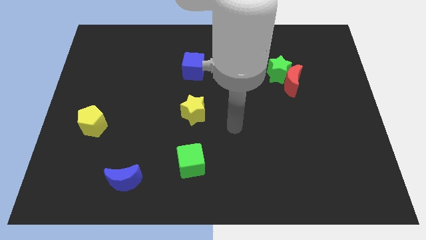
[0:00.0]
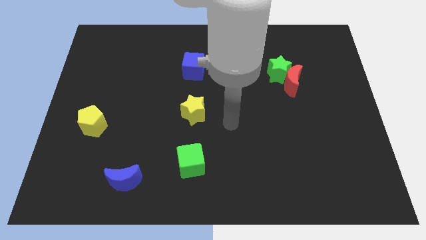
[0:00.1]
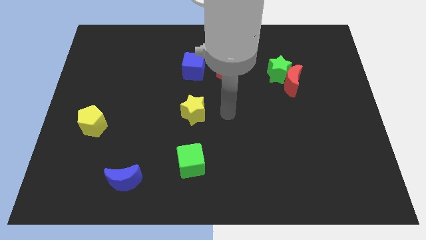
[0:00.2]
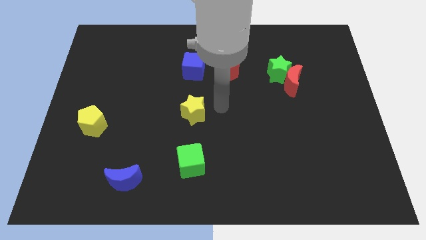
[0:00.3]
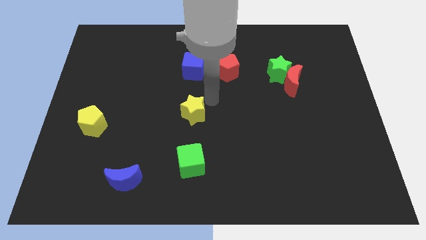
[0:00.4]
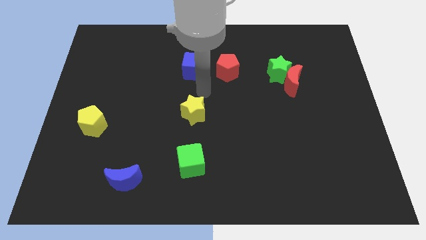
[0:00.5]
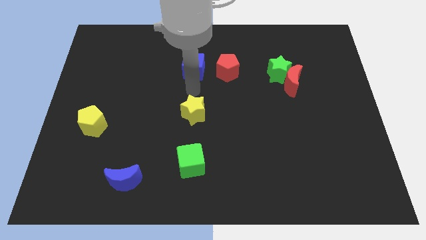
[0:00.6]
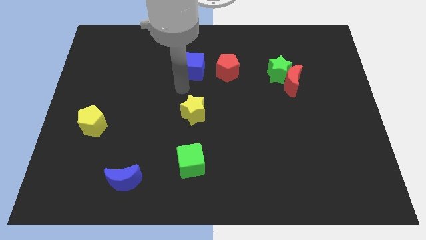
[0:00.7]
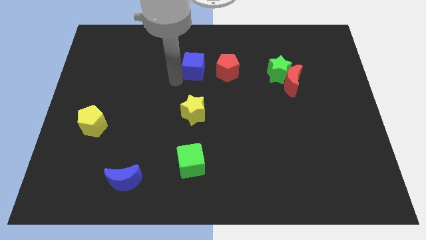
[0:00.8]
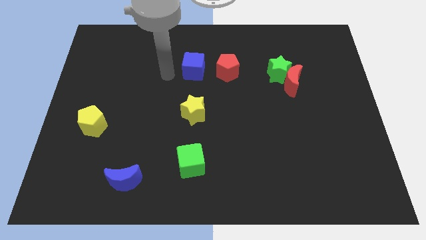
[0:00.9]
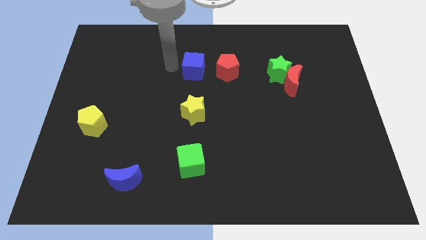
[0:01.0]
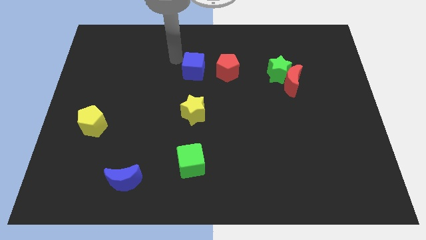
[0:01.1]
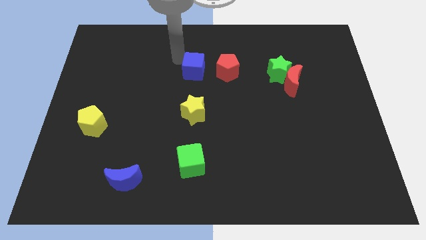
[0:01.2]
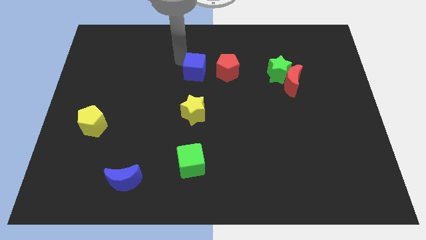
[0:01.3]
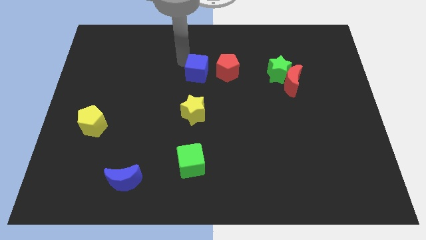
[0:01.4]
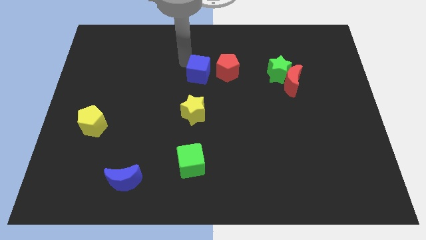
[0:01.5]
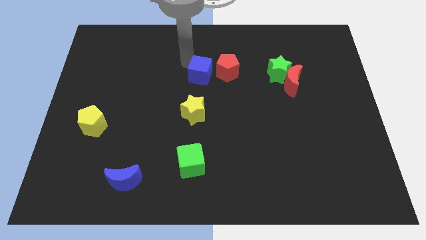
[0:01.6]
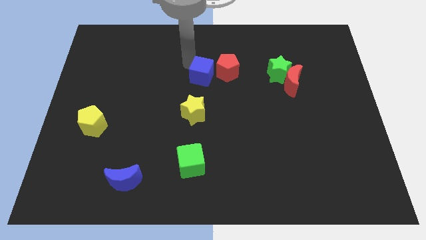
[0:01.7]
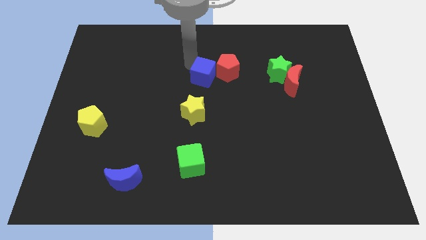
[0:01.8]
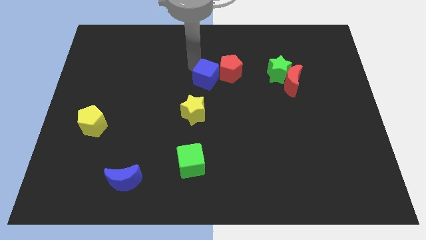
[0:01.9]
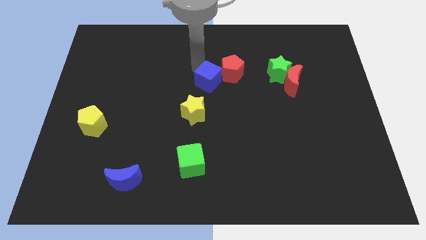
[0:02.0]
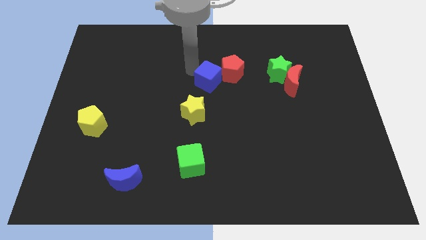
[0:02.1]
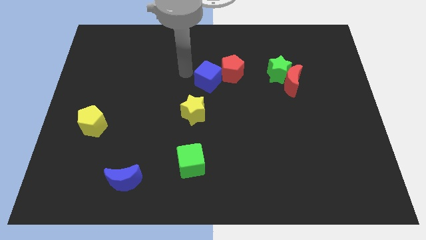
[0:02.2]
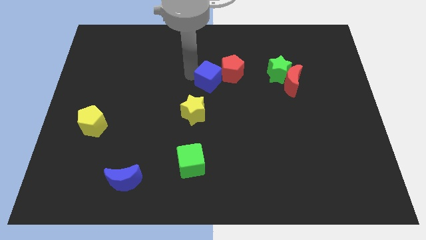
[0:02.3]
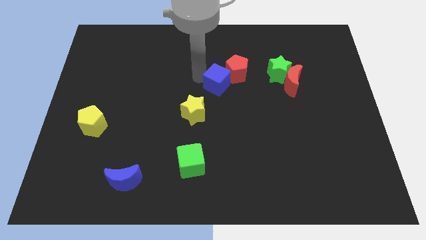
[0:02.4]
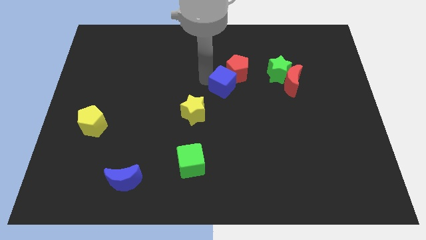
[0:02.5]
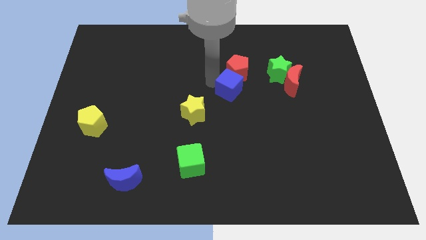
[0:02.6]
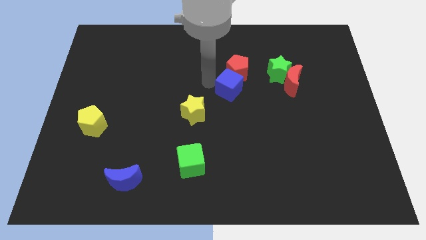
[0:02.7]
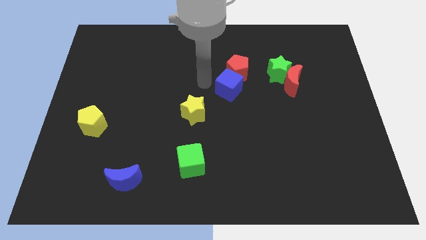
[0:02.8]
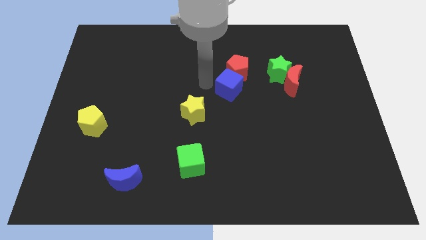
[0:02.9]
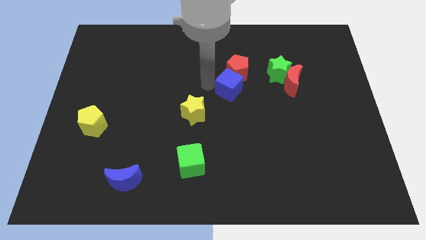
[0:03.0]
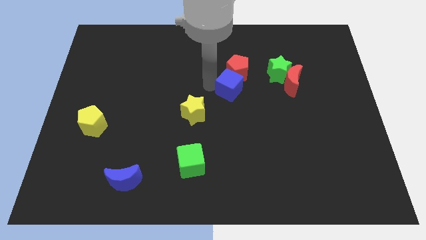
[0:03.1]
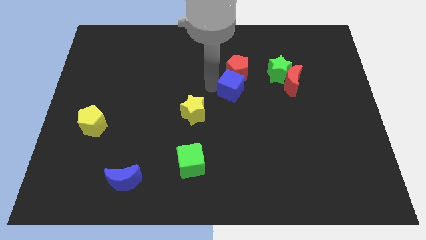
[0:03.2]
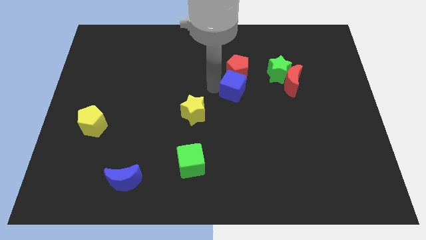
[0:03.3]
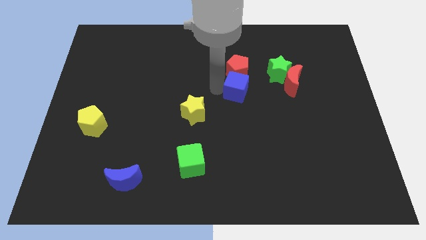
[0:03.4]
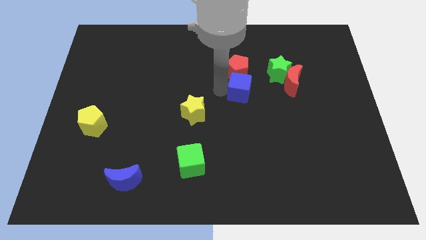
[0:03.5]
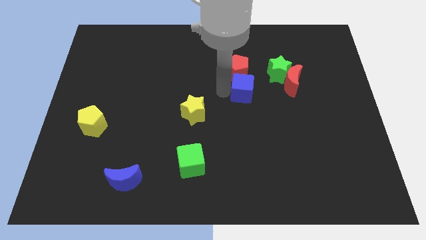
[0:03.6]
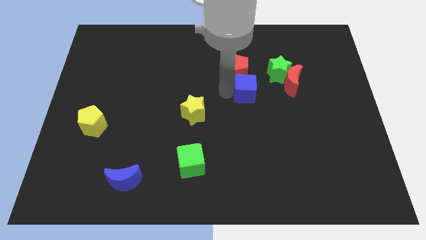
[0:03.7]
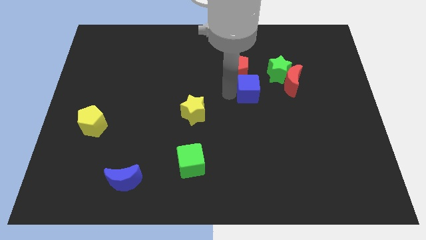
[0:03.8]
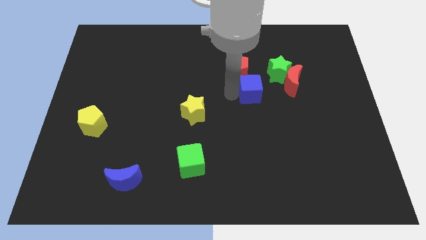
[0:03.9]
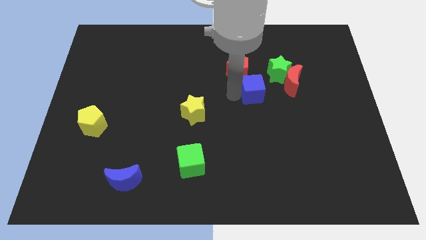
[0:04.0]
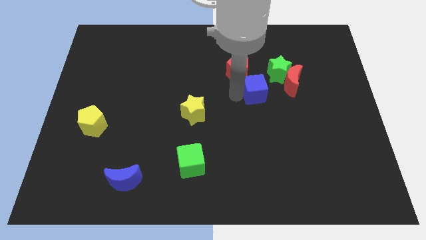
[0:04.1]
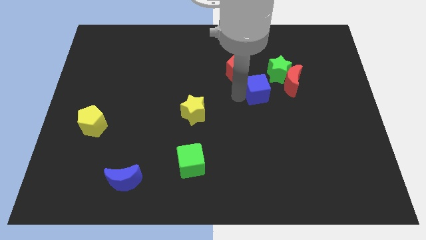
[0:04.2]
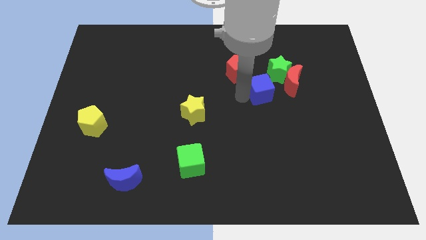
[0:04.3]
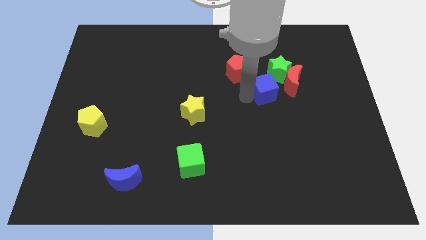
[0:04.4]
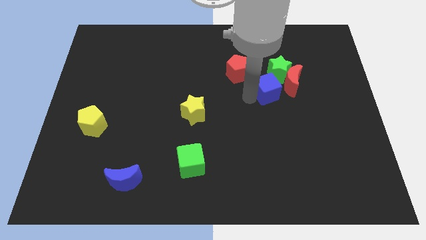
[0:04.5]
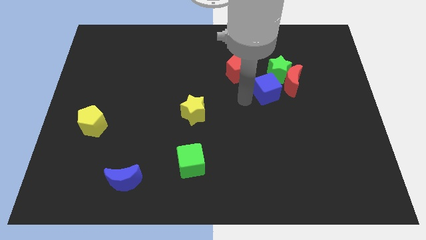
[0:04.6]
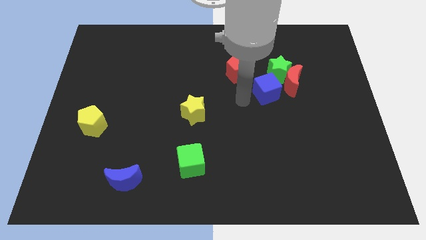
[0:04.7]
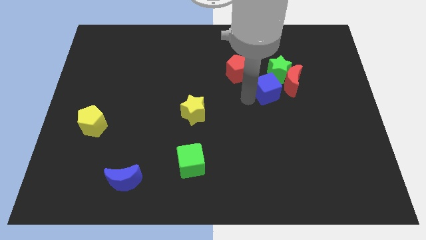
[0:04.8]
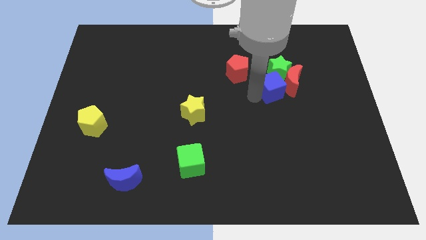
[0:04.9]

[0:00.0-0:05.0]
slide the blue cube to the red moon

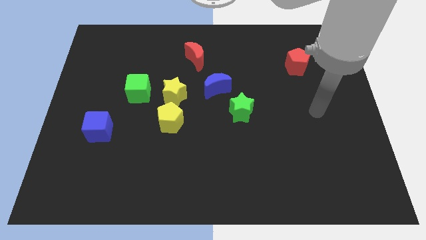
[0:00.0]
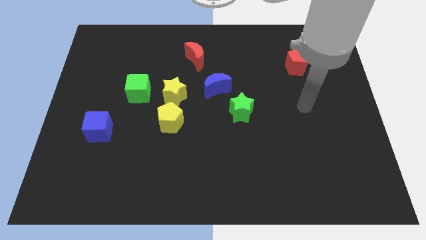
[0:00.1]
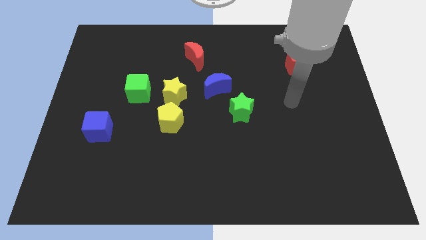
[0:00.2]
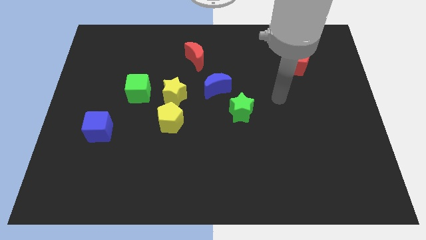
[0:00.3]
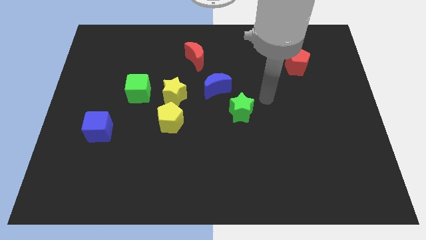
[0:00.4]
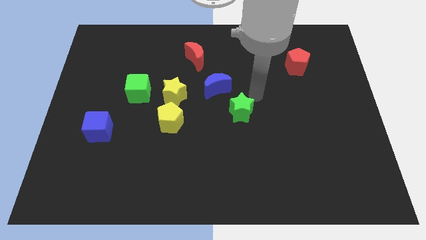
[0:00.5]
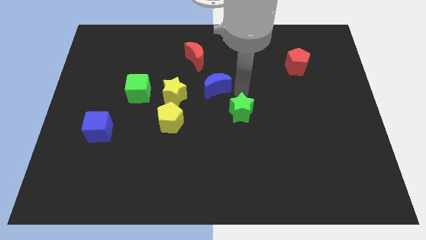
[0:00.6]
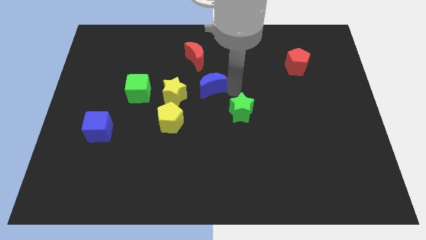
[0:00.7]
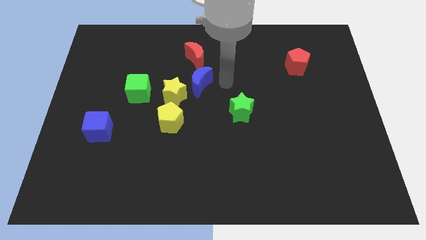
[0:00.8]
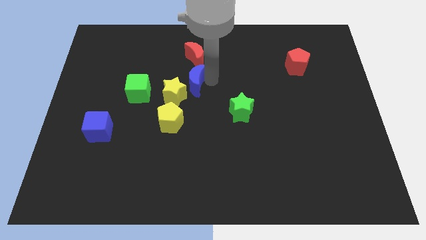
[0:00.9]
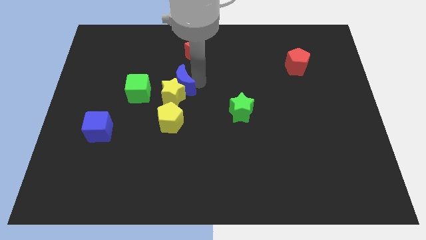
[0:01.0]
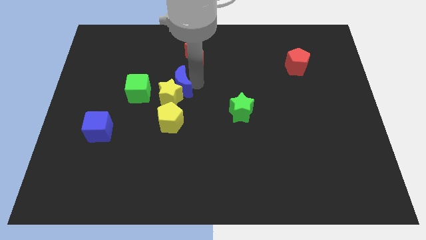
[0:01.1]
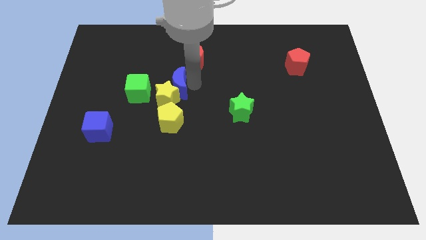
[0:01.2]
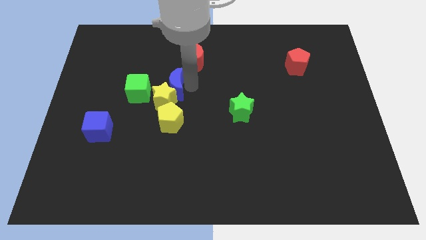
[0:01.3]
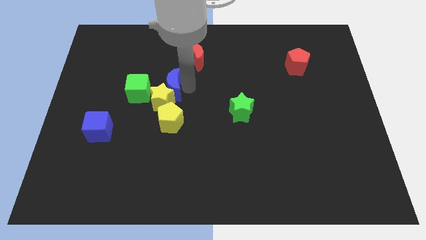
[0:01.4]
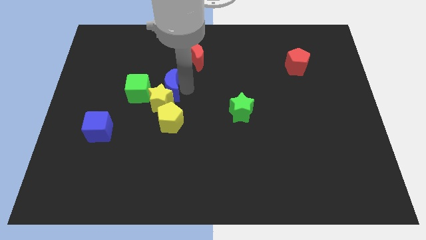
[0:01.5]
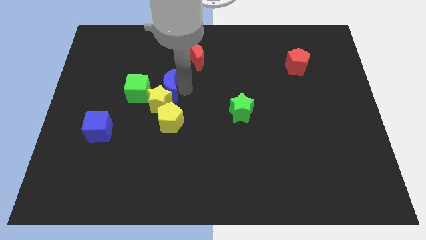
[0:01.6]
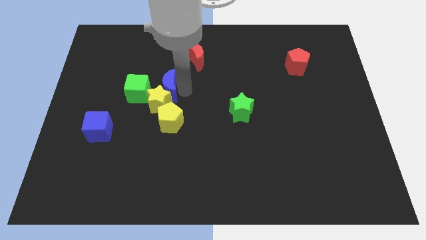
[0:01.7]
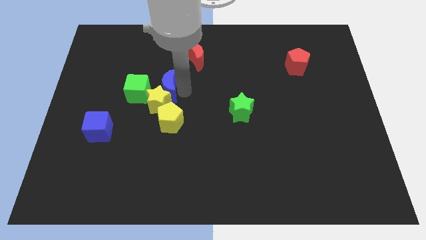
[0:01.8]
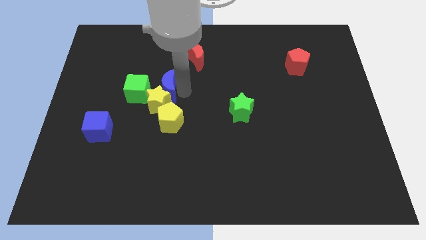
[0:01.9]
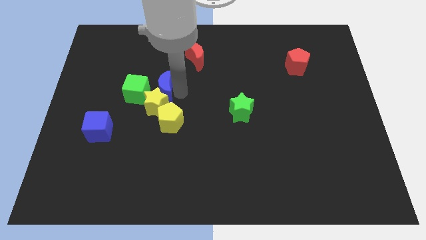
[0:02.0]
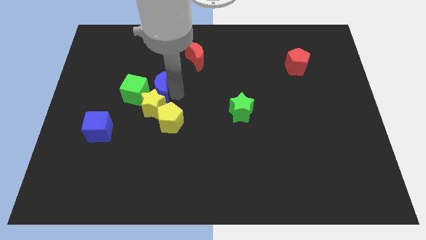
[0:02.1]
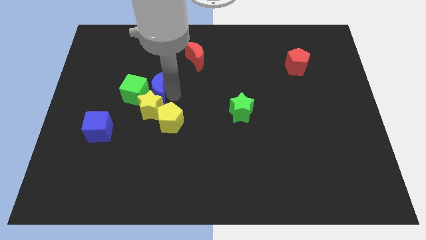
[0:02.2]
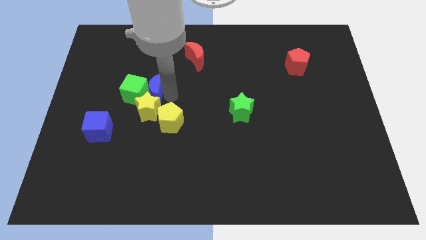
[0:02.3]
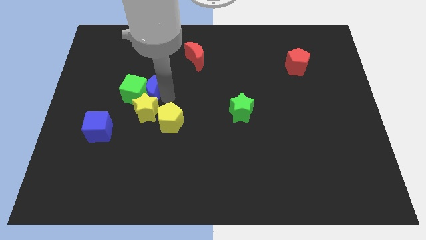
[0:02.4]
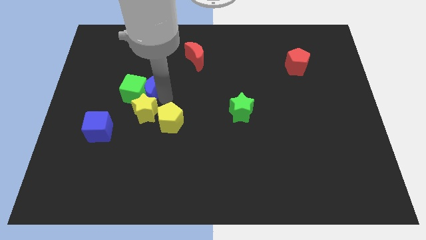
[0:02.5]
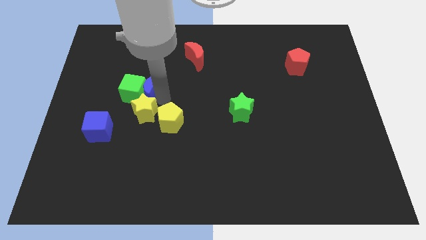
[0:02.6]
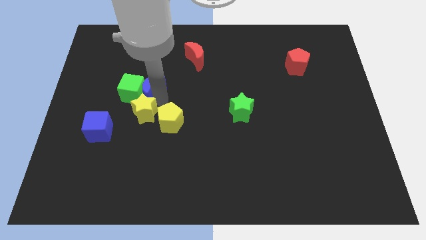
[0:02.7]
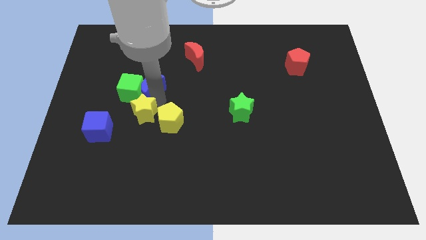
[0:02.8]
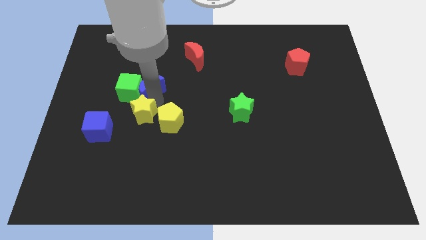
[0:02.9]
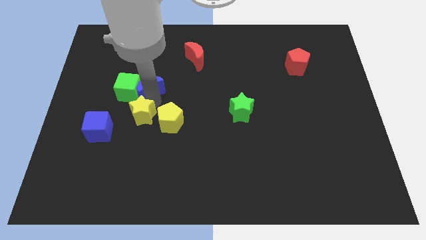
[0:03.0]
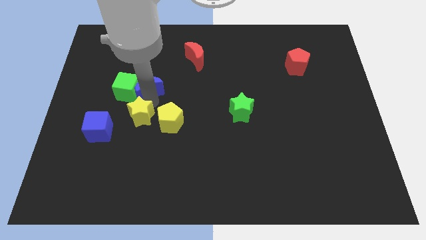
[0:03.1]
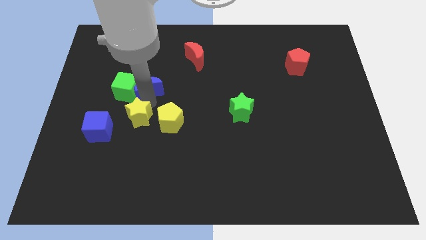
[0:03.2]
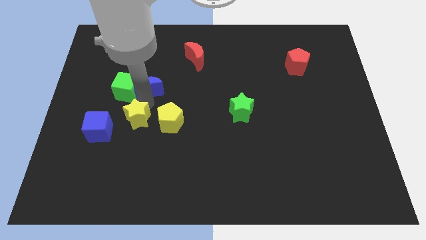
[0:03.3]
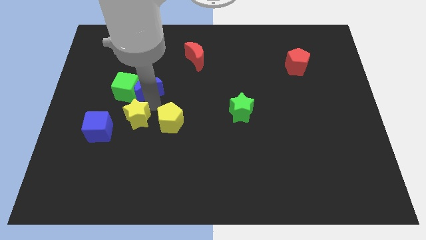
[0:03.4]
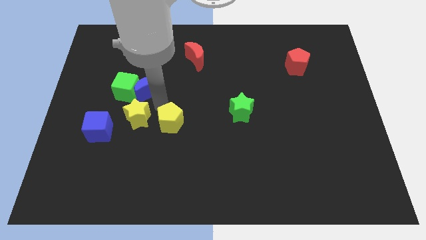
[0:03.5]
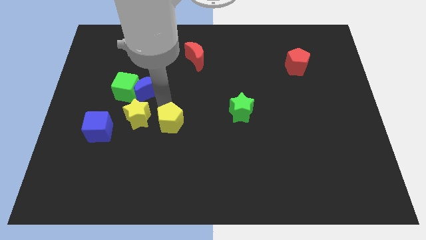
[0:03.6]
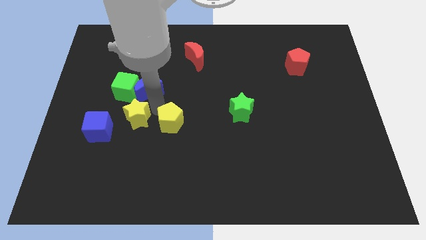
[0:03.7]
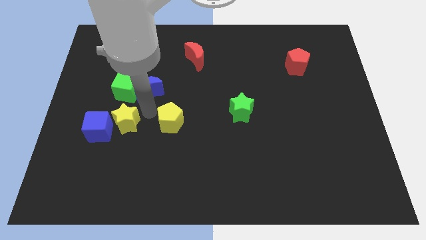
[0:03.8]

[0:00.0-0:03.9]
move the yellow star towards the blue cube
